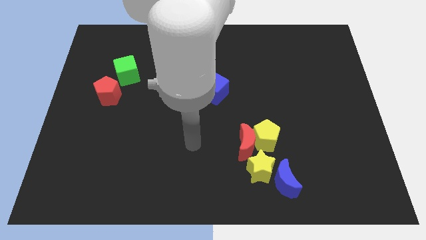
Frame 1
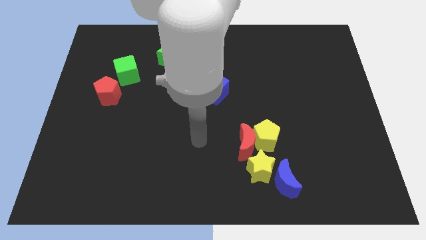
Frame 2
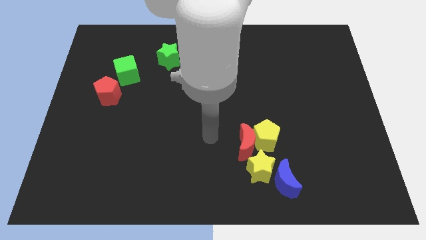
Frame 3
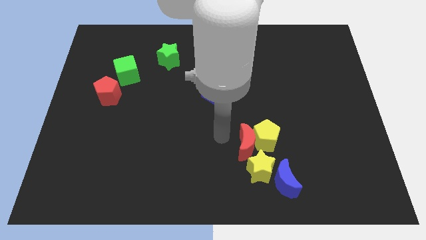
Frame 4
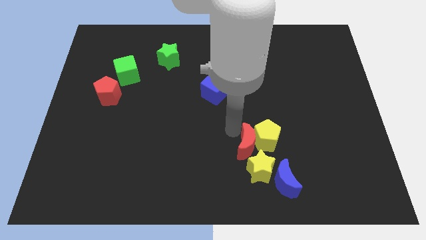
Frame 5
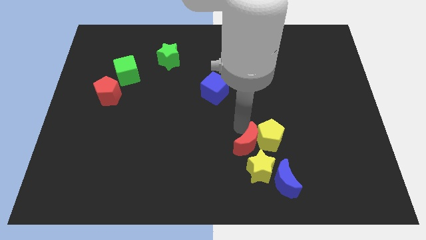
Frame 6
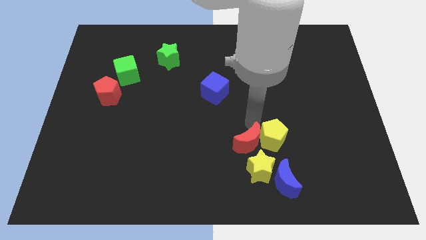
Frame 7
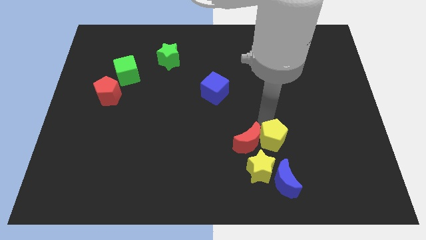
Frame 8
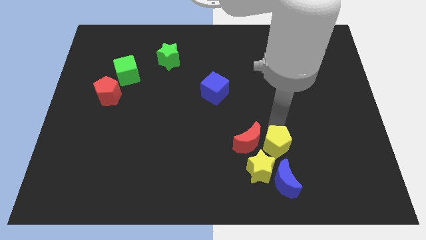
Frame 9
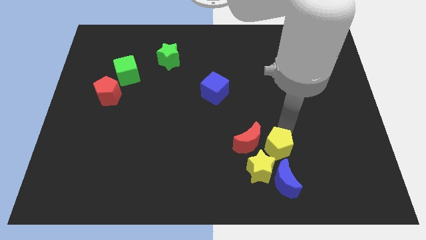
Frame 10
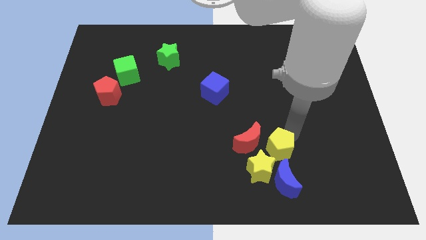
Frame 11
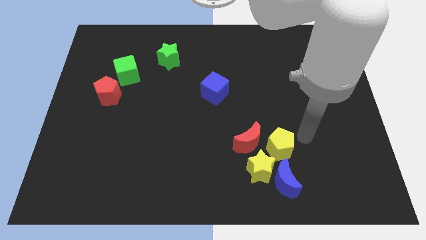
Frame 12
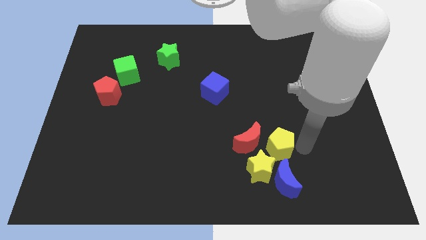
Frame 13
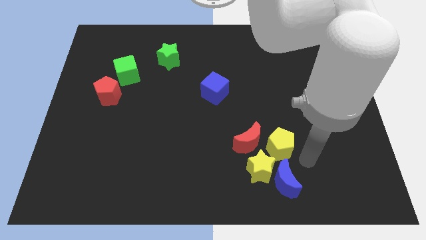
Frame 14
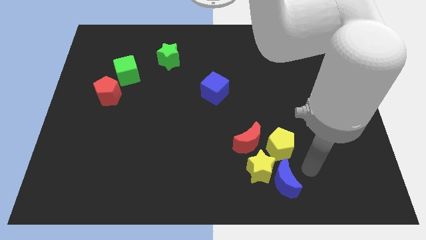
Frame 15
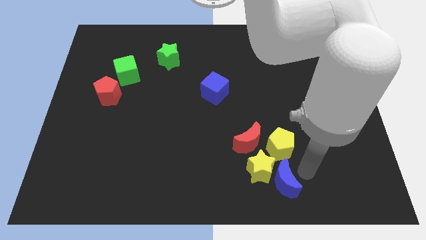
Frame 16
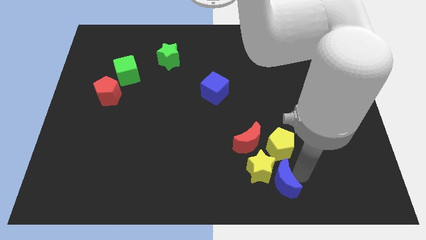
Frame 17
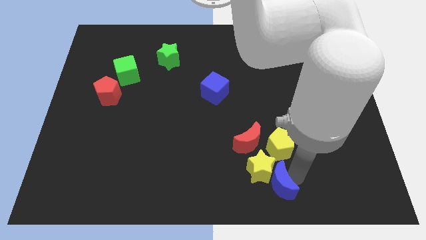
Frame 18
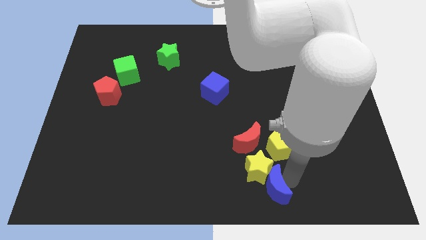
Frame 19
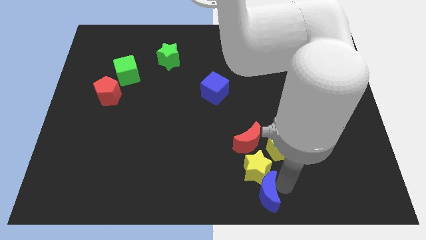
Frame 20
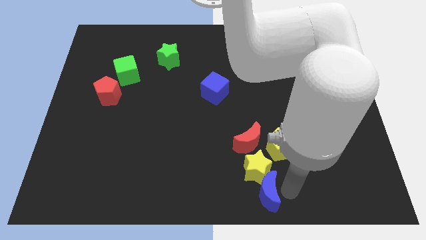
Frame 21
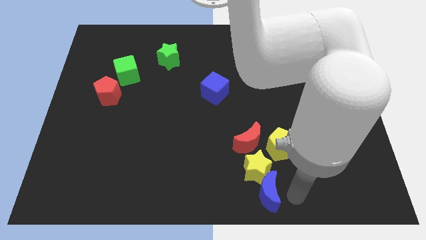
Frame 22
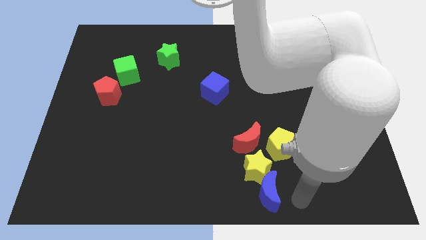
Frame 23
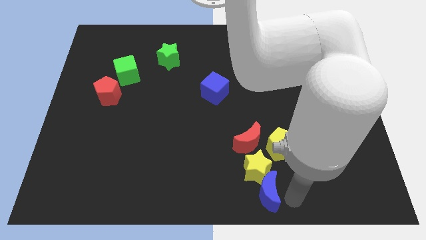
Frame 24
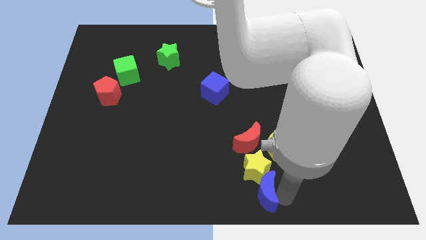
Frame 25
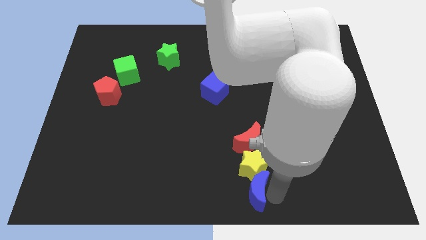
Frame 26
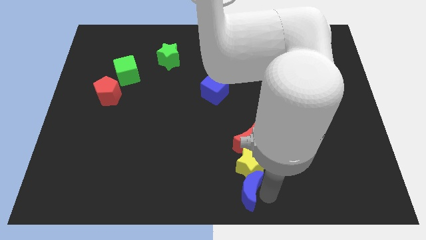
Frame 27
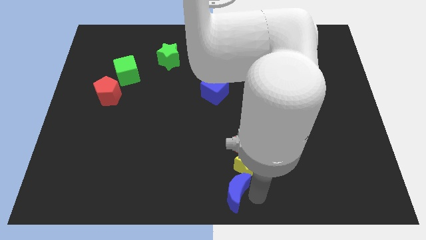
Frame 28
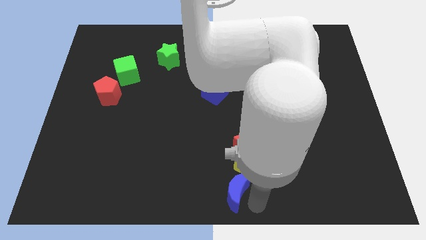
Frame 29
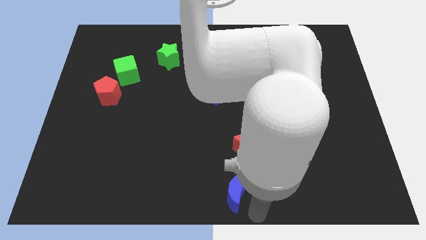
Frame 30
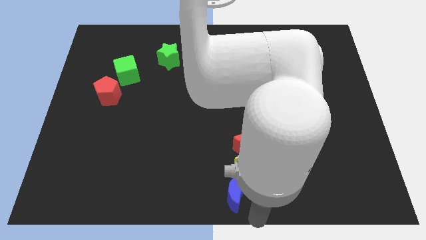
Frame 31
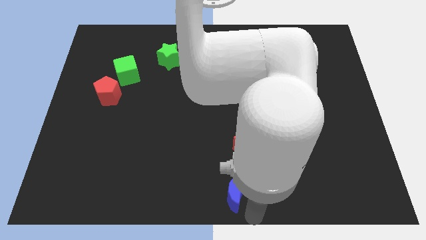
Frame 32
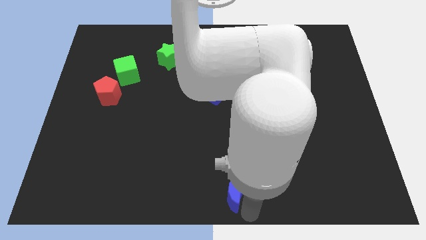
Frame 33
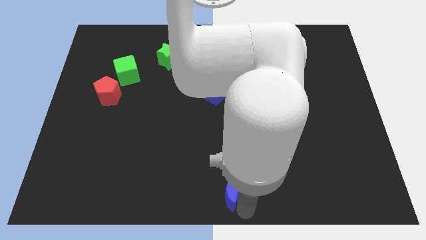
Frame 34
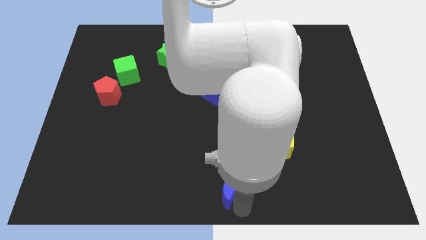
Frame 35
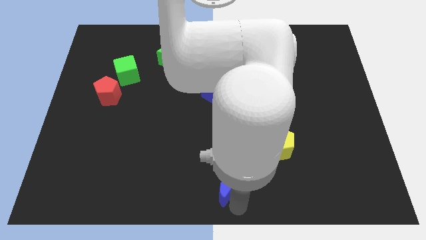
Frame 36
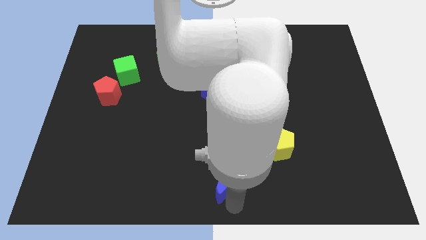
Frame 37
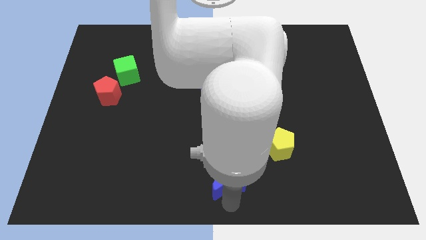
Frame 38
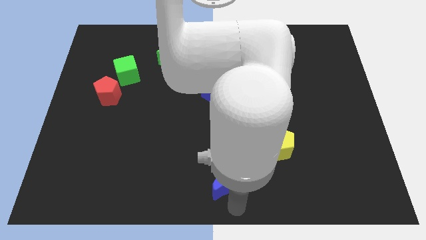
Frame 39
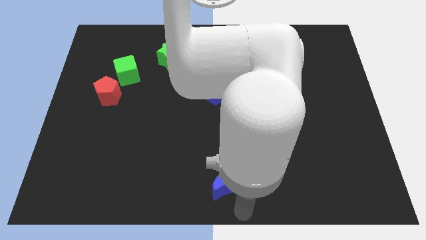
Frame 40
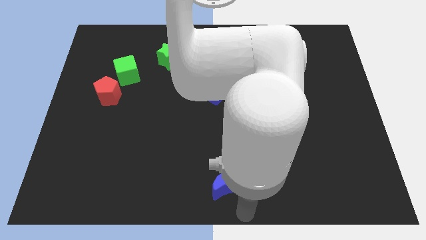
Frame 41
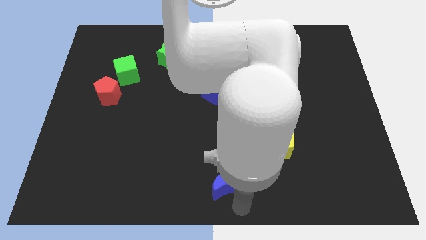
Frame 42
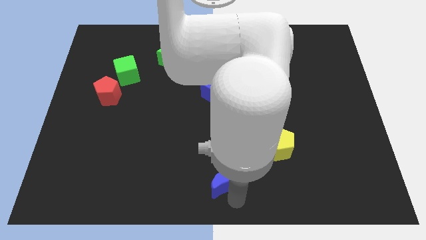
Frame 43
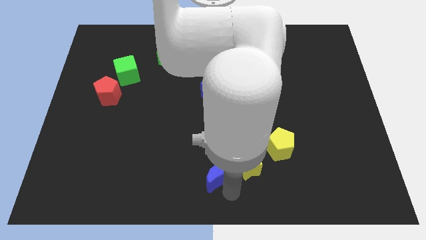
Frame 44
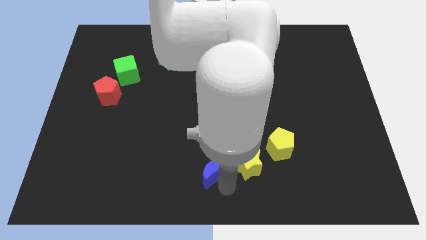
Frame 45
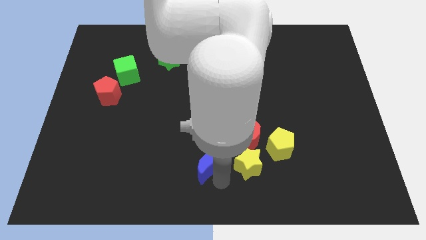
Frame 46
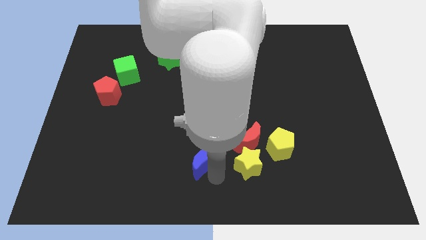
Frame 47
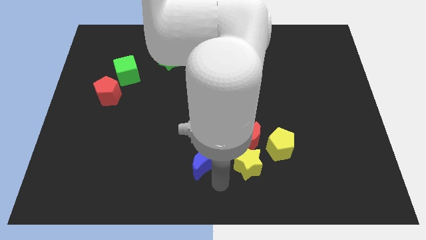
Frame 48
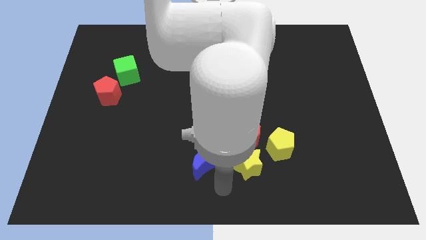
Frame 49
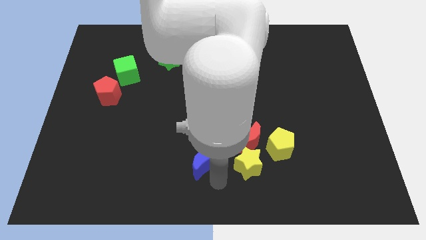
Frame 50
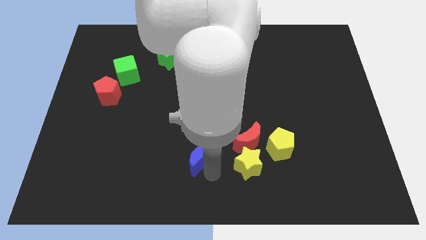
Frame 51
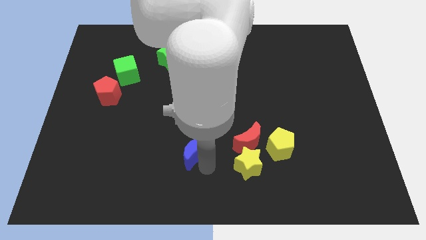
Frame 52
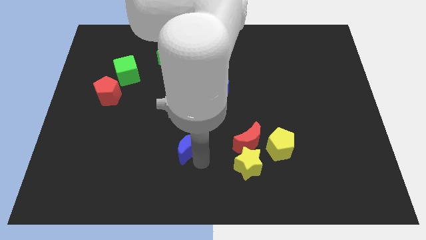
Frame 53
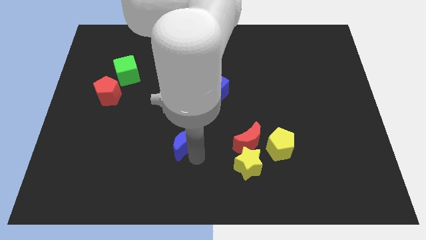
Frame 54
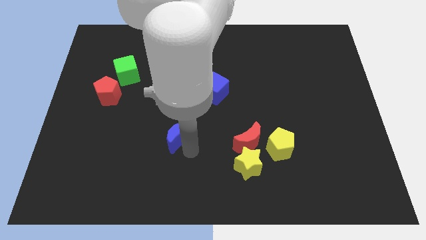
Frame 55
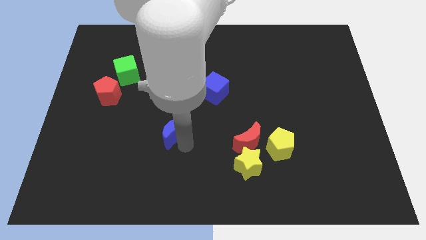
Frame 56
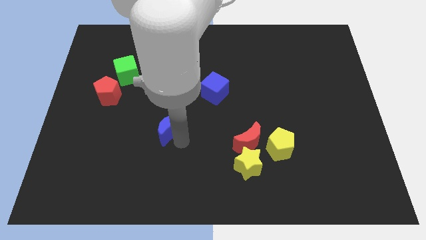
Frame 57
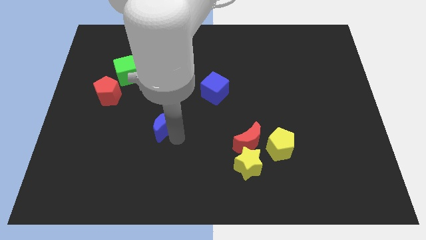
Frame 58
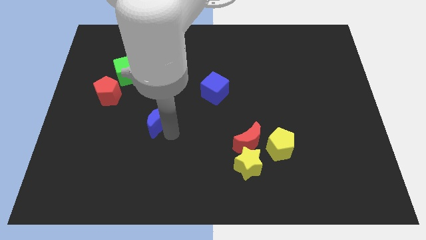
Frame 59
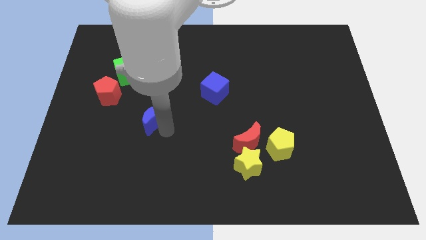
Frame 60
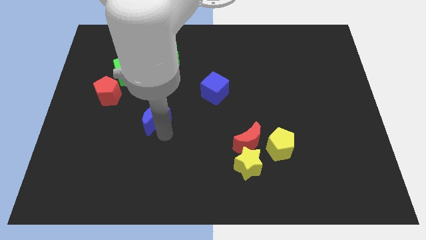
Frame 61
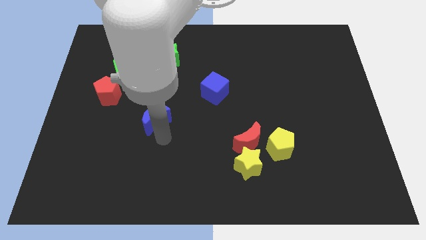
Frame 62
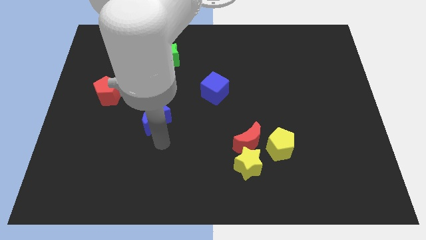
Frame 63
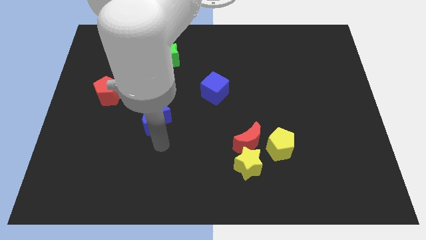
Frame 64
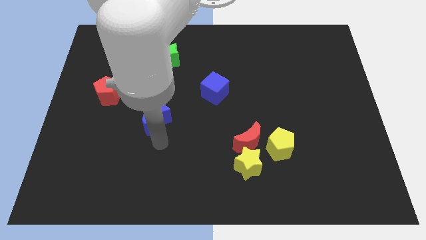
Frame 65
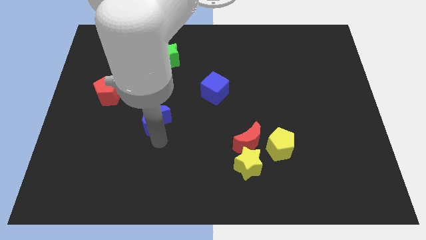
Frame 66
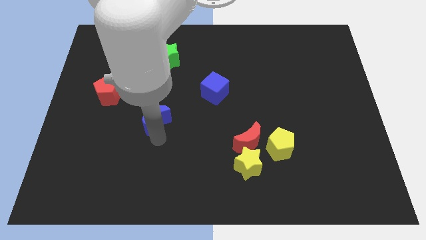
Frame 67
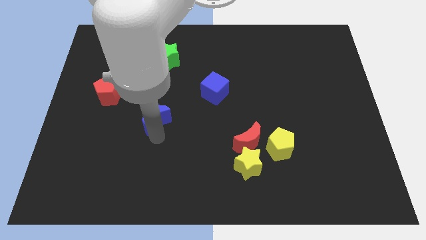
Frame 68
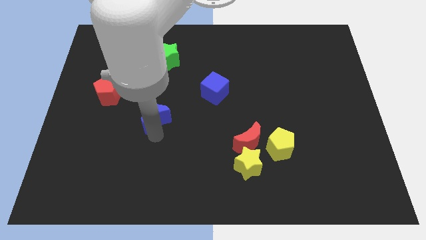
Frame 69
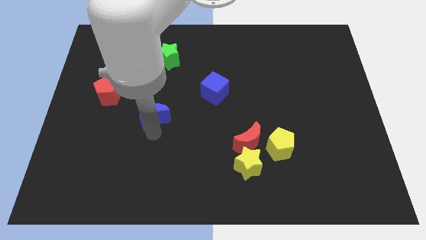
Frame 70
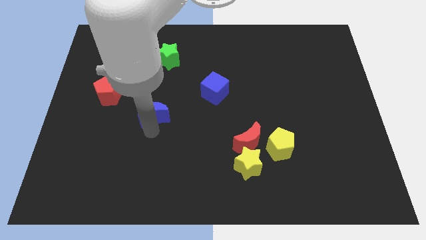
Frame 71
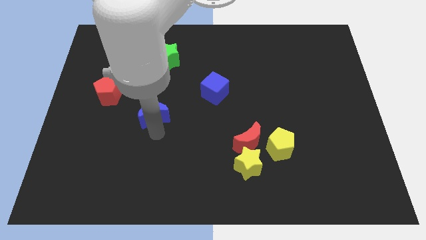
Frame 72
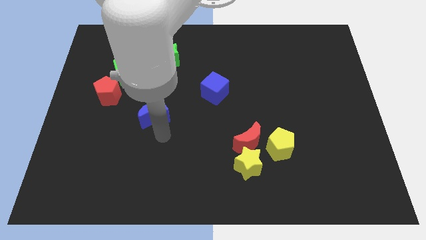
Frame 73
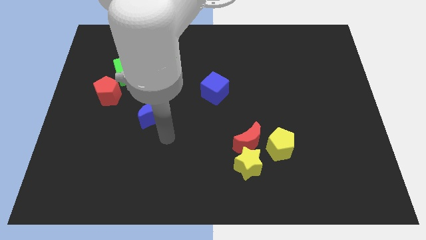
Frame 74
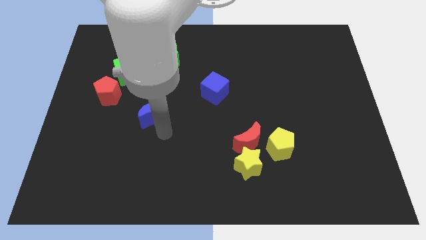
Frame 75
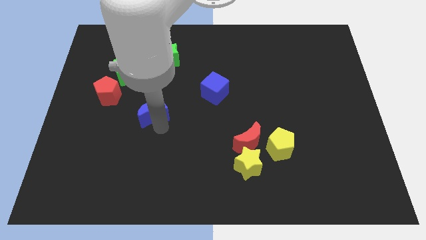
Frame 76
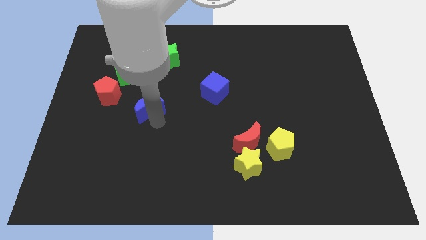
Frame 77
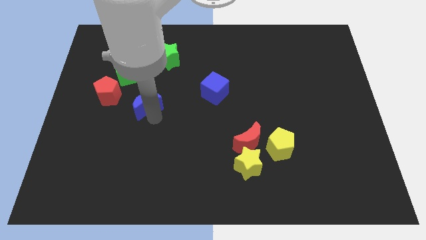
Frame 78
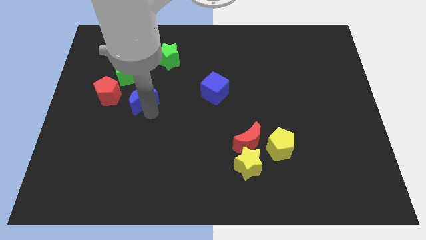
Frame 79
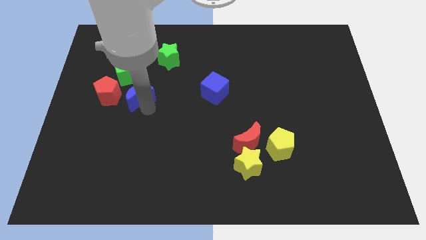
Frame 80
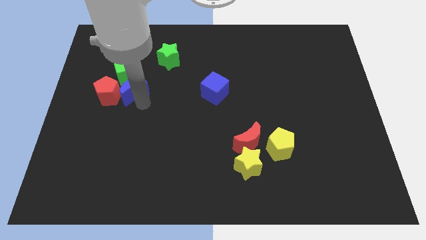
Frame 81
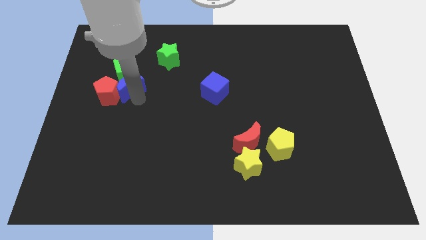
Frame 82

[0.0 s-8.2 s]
push the blue moon to the green cube
